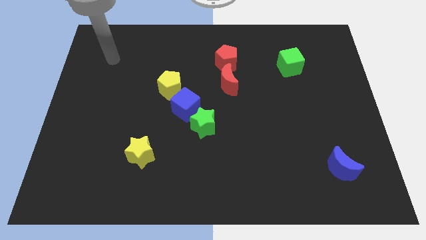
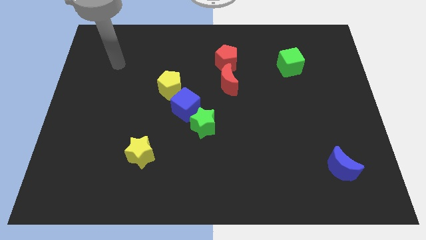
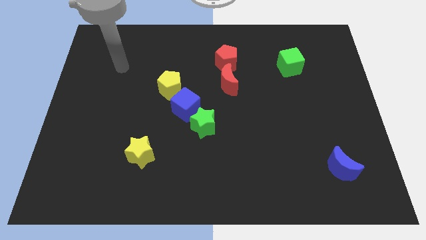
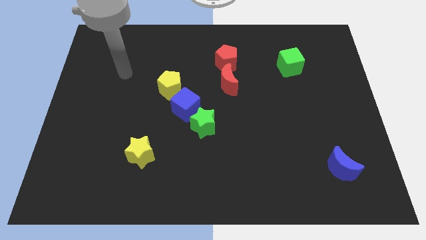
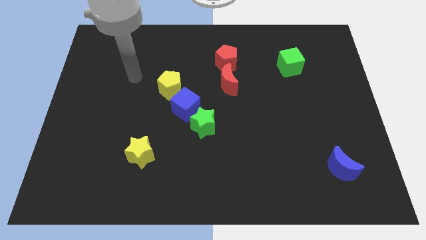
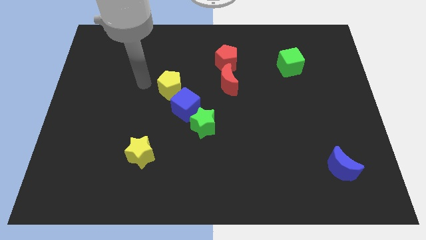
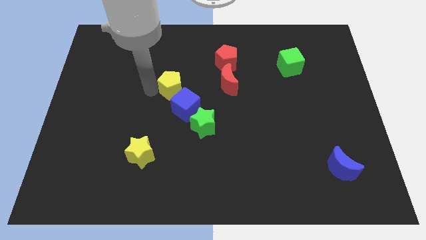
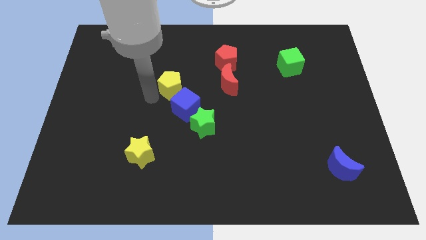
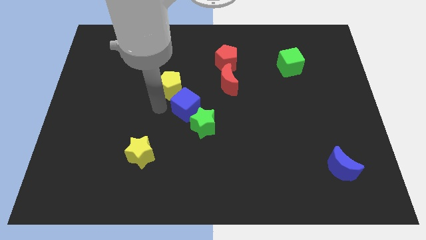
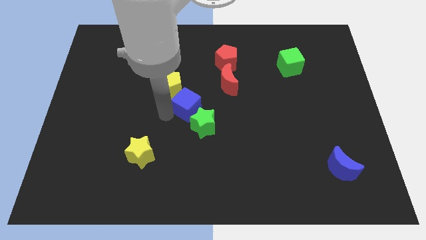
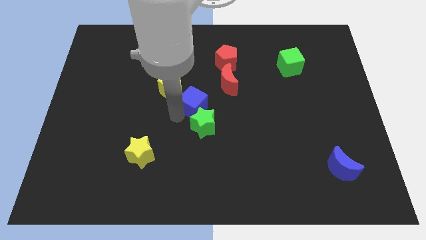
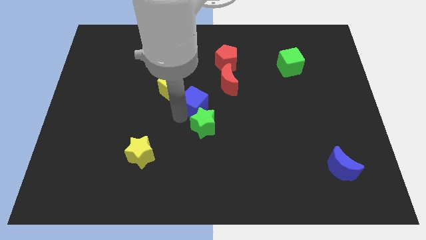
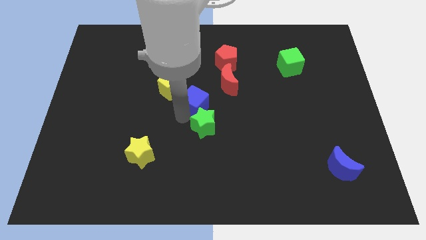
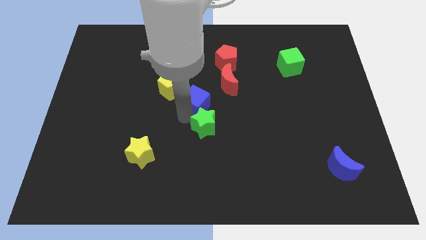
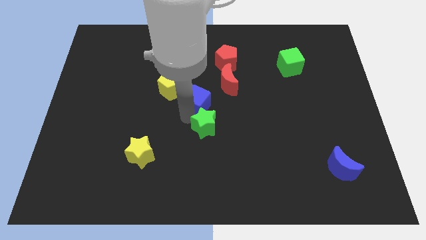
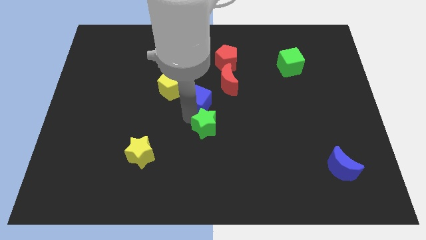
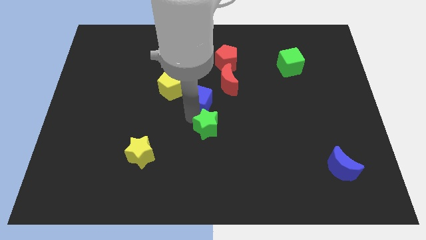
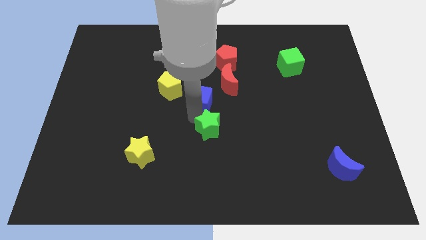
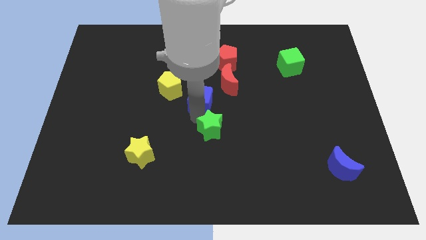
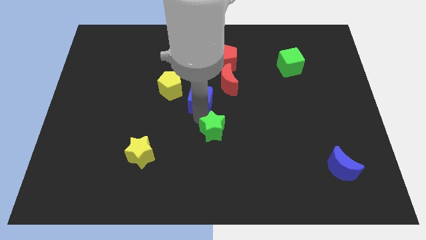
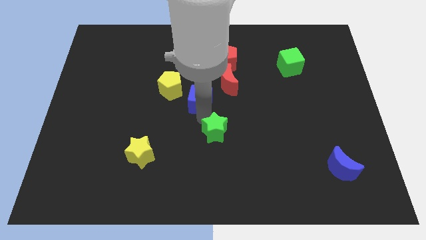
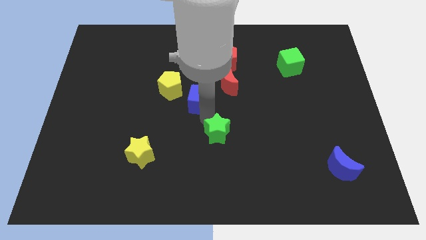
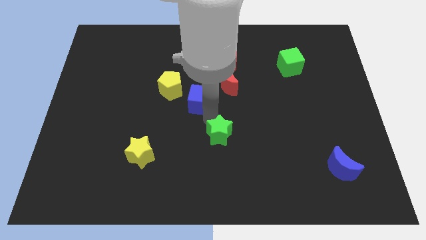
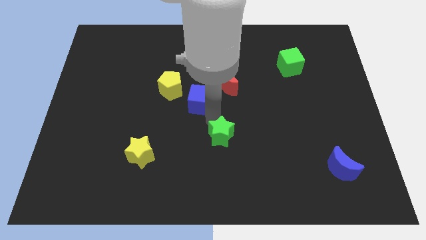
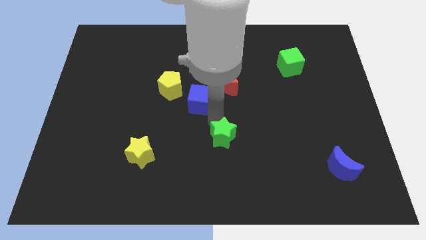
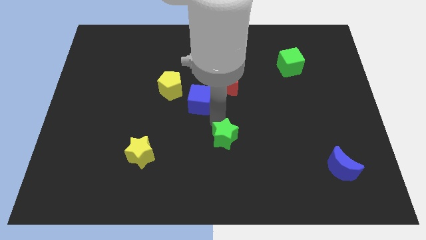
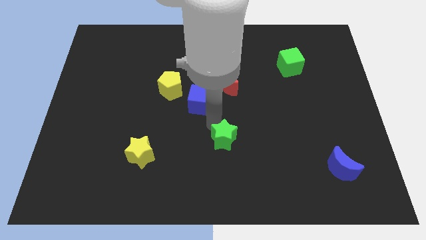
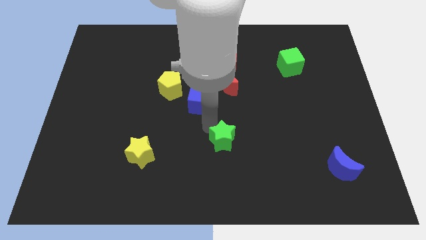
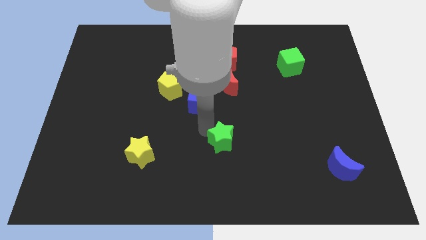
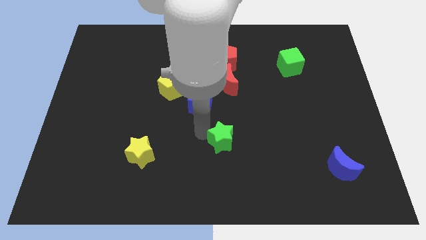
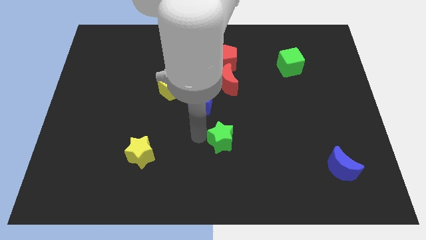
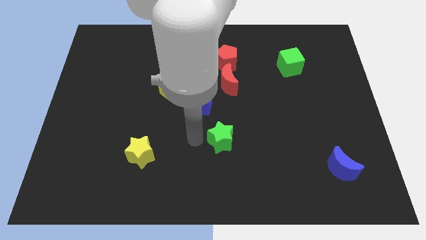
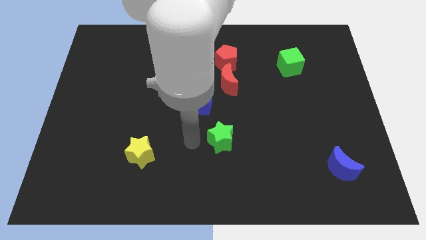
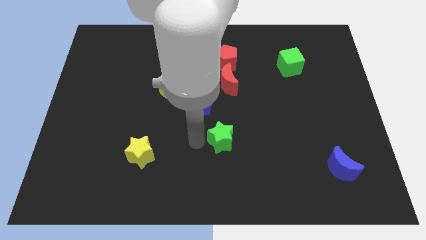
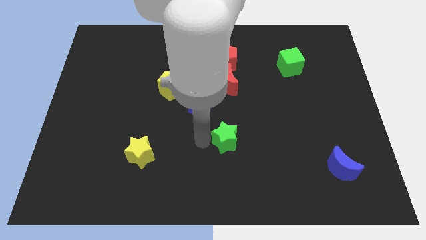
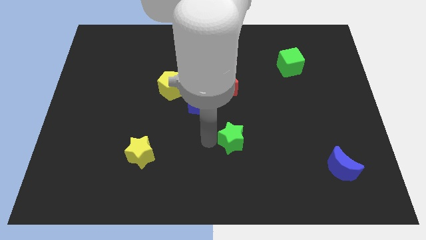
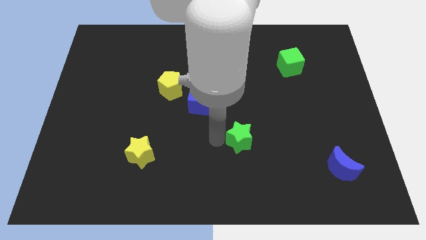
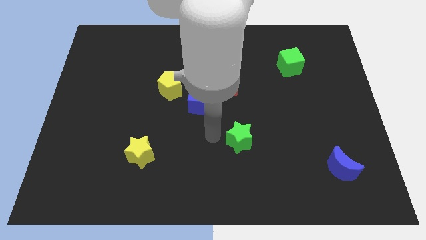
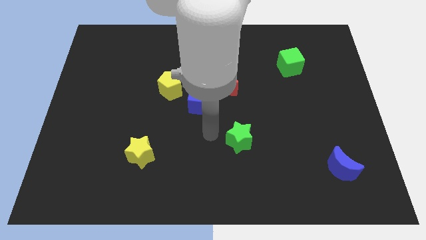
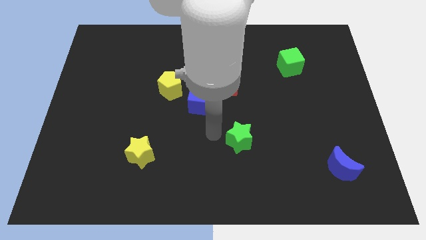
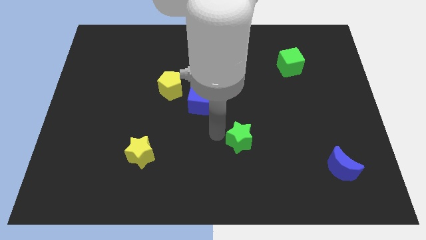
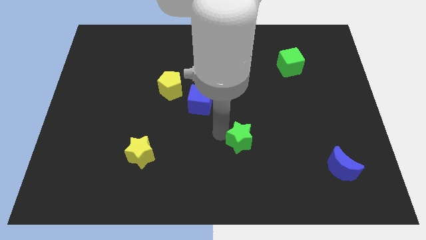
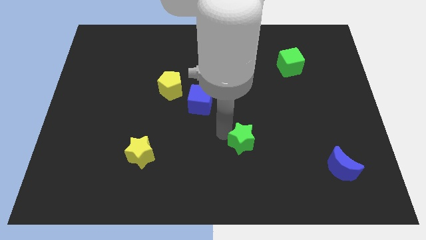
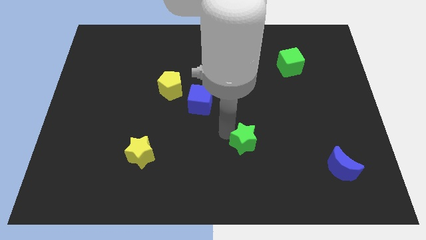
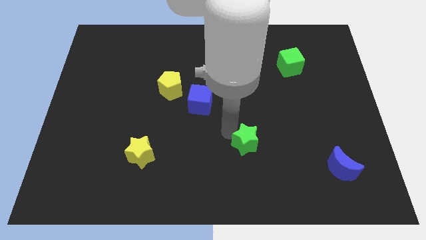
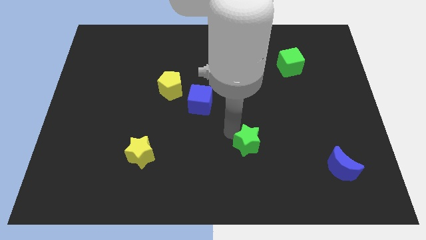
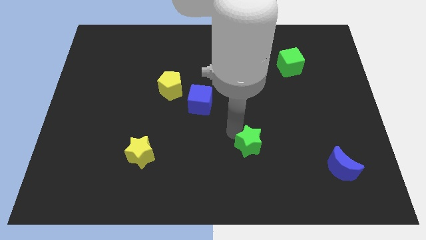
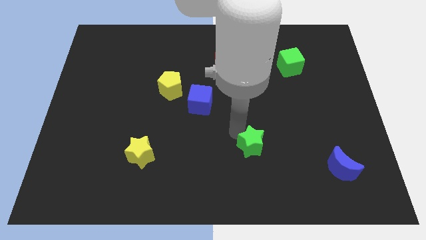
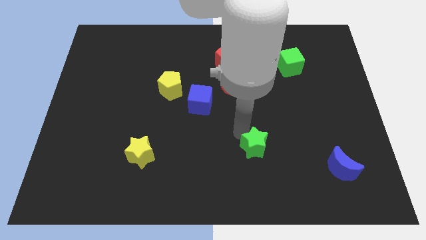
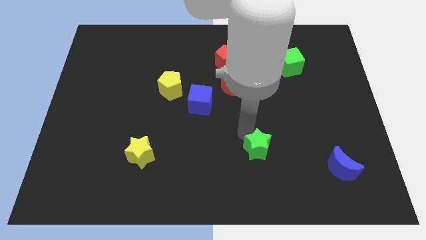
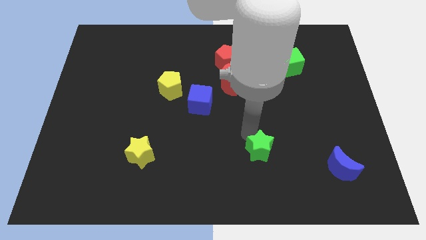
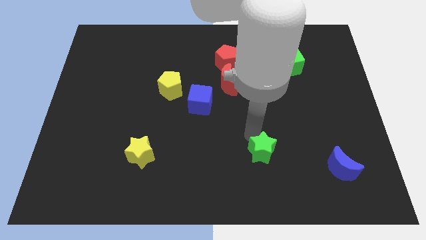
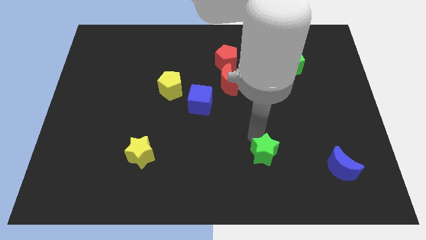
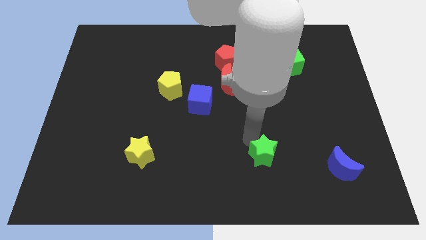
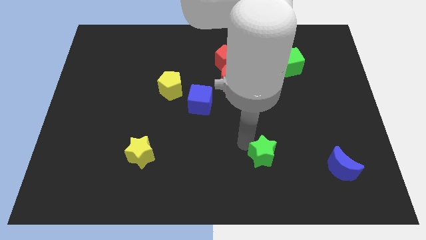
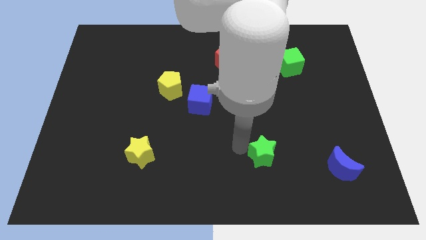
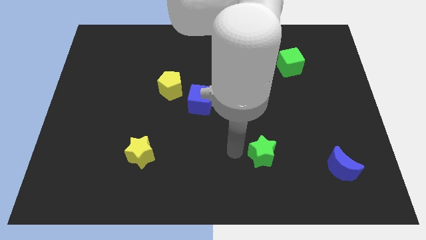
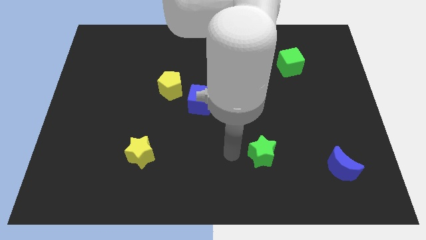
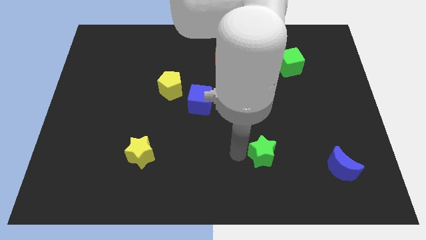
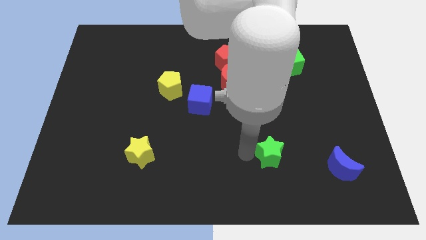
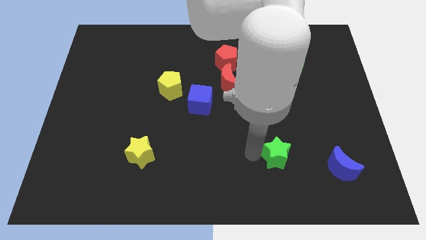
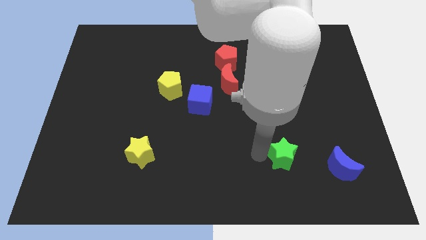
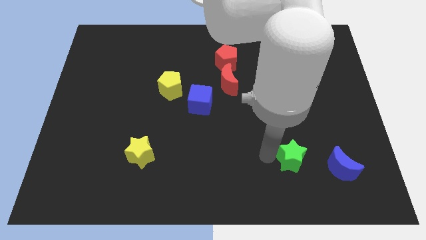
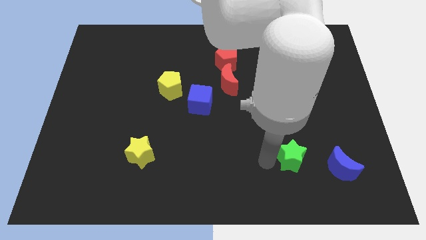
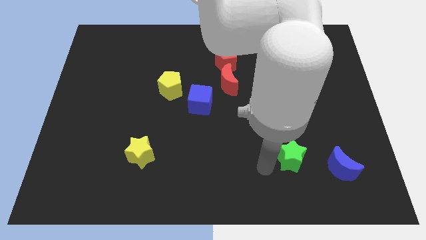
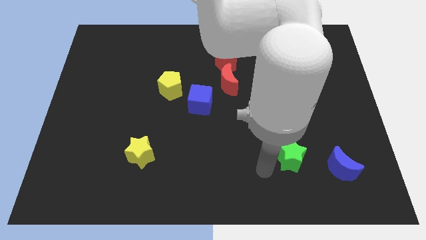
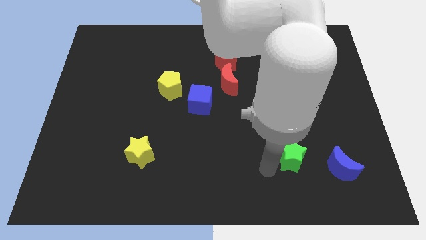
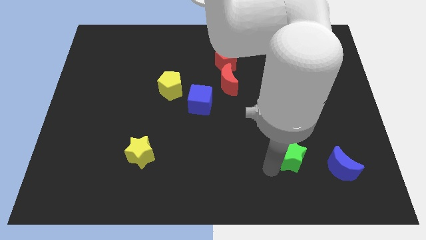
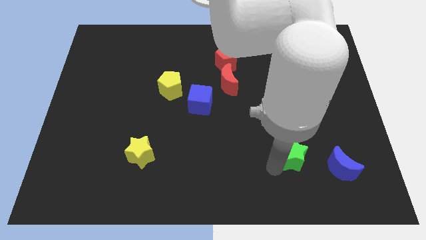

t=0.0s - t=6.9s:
move the green star to the top left side of the blue moon

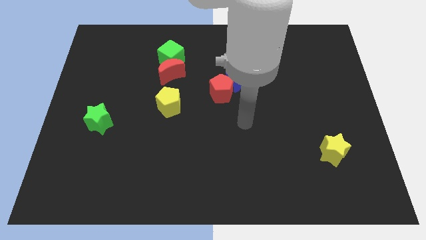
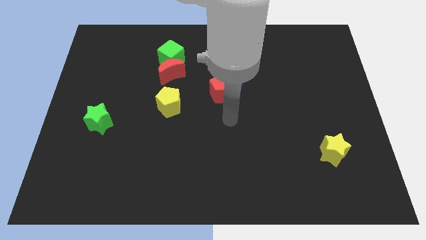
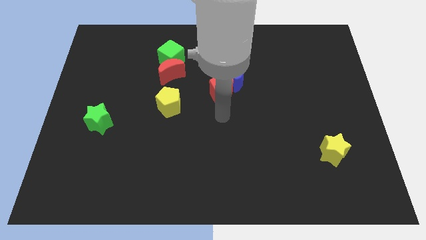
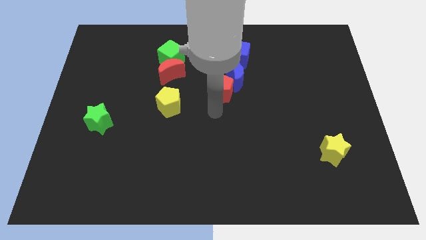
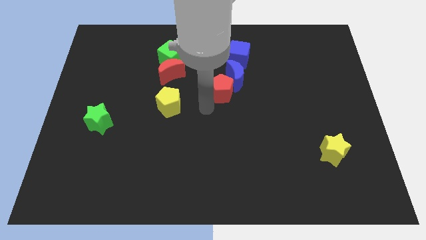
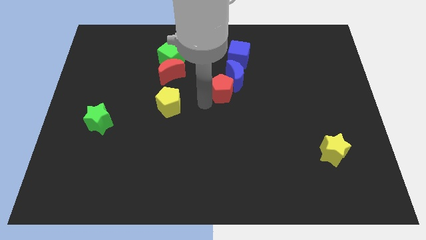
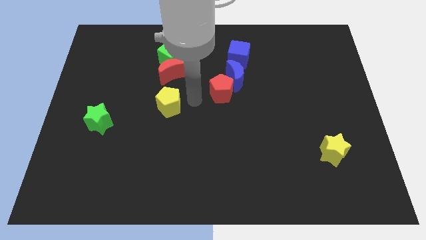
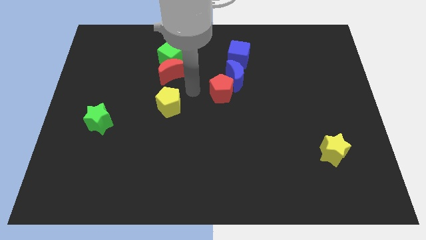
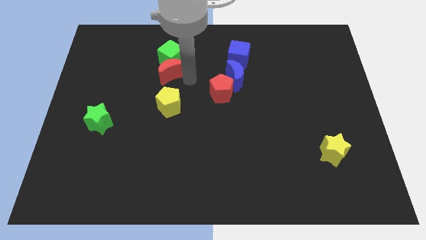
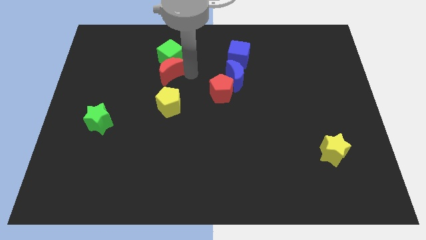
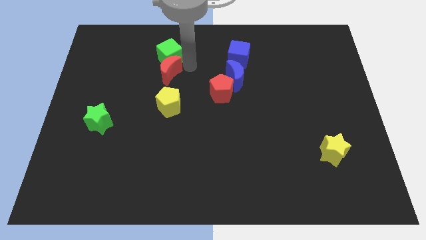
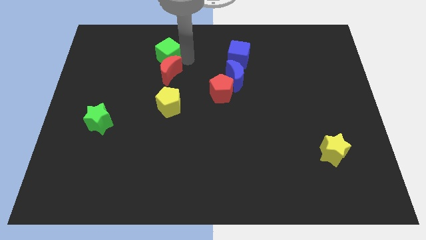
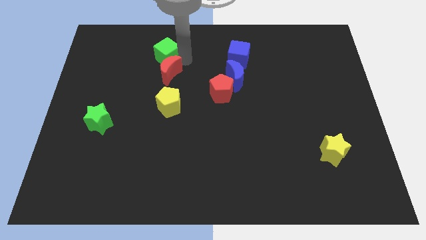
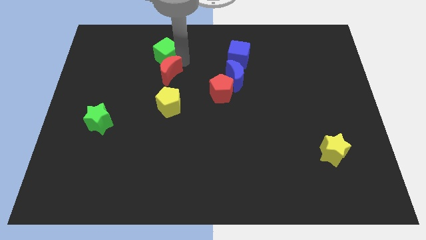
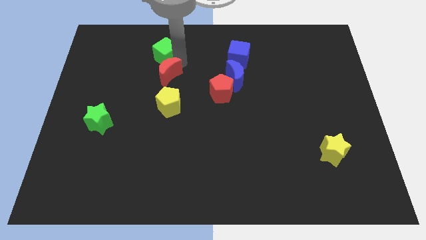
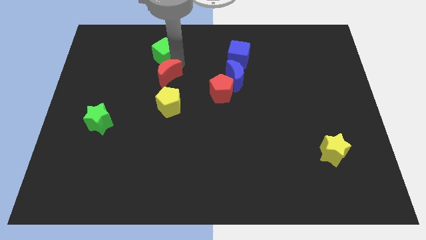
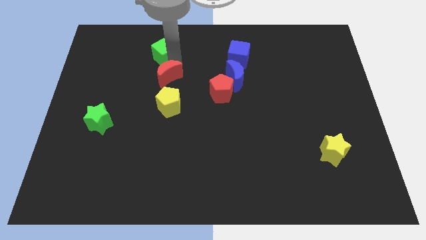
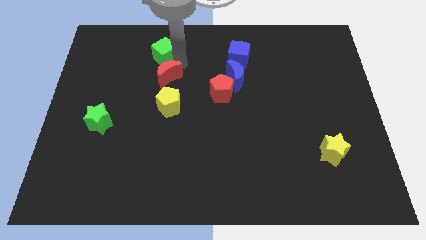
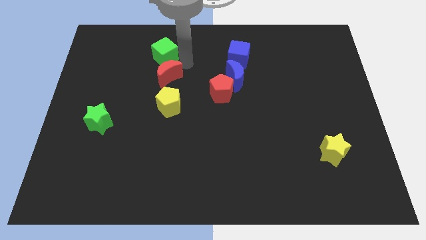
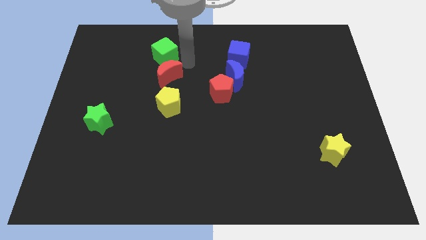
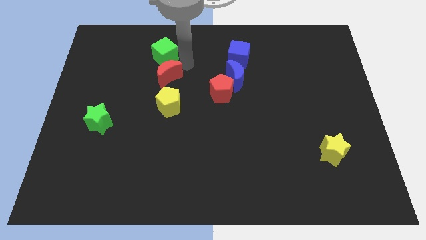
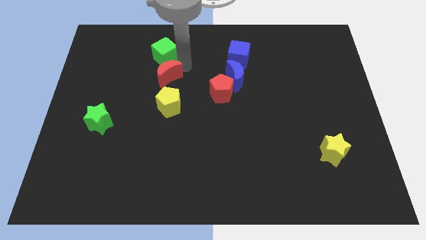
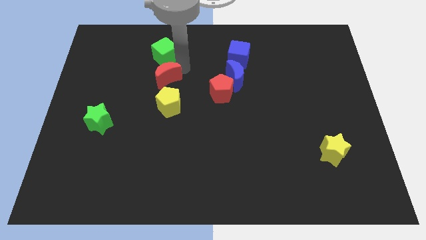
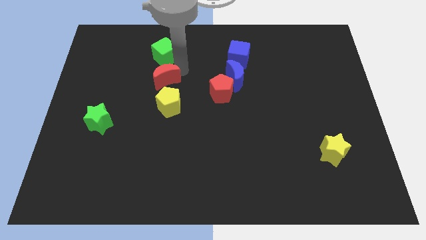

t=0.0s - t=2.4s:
slide the red moon diagonally up and to the left of the yellow pentagon
